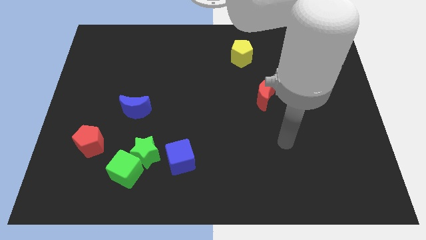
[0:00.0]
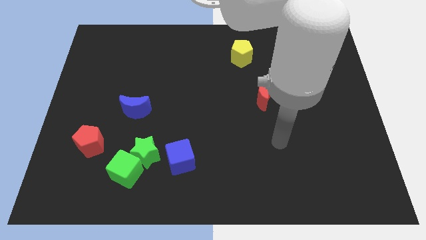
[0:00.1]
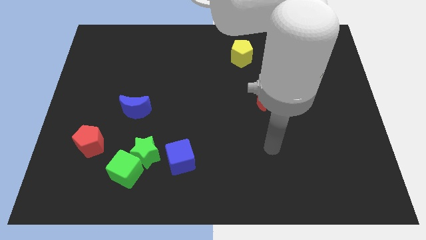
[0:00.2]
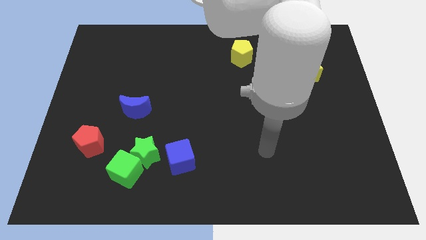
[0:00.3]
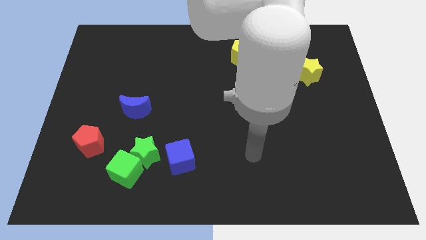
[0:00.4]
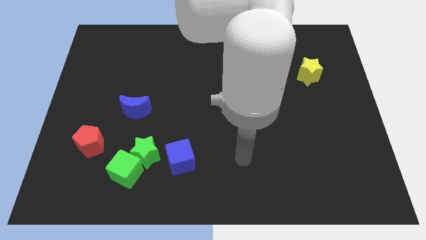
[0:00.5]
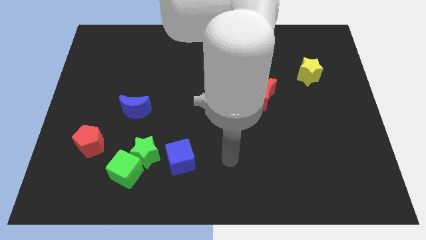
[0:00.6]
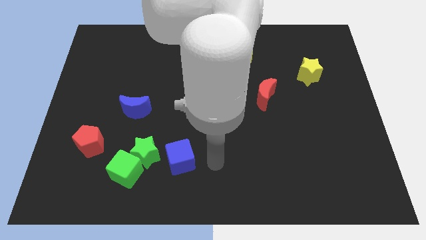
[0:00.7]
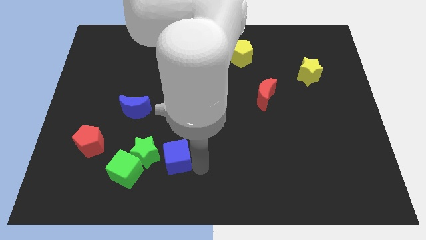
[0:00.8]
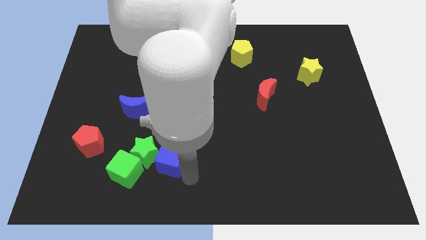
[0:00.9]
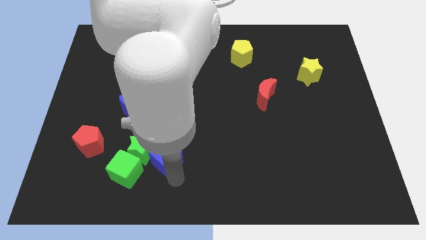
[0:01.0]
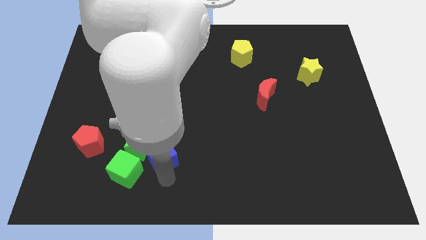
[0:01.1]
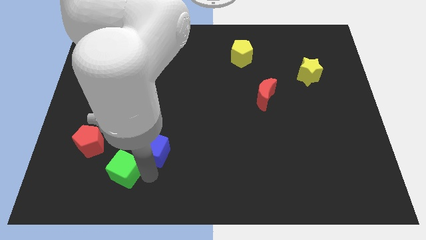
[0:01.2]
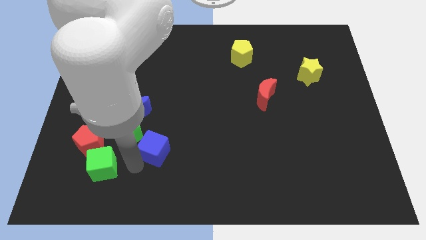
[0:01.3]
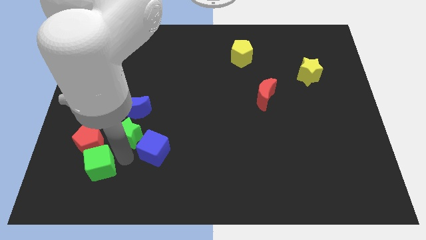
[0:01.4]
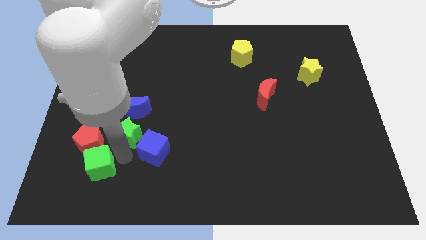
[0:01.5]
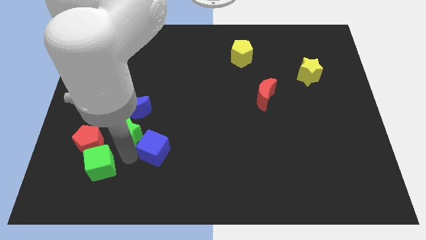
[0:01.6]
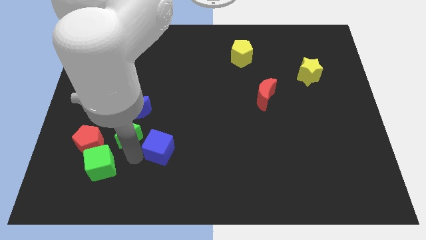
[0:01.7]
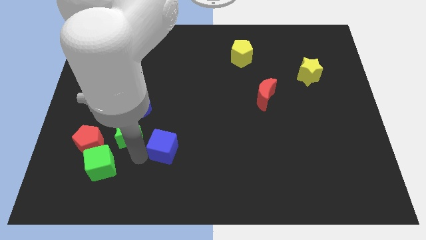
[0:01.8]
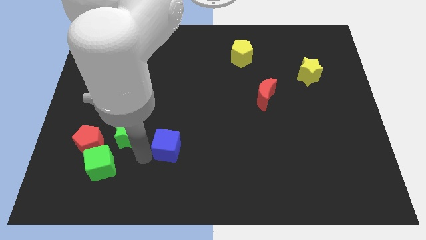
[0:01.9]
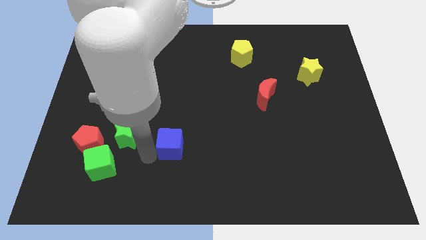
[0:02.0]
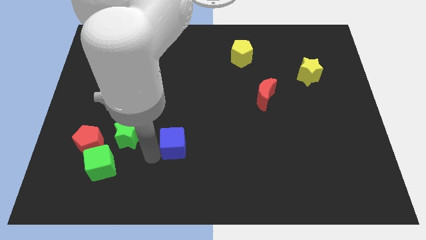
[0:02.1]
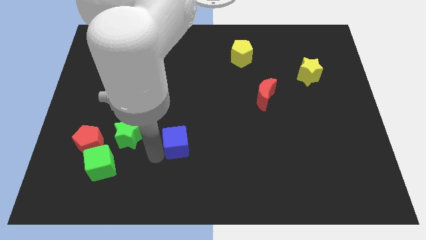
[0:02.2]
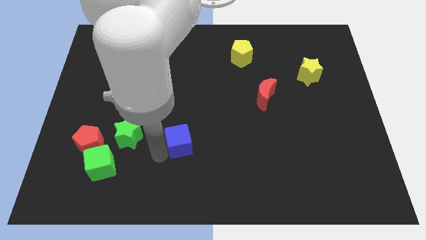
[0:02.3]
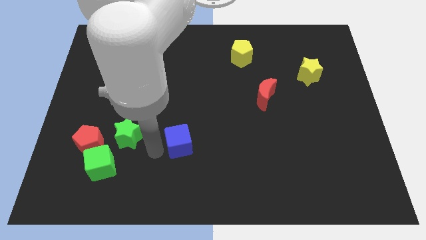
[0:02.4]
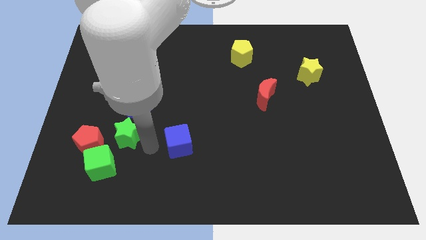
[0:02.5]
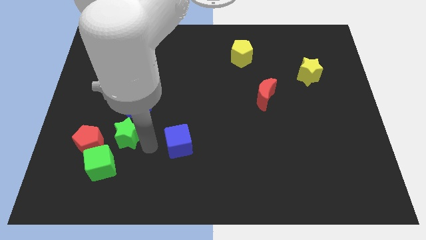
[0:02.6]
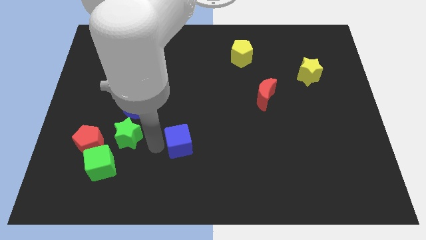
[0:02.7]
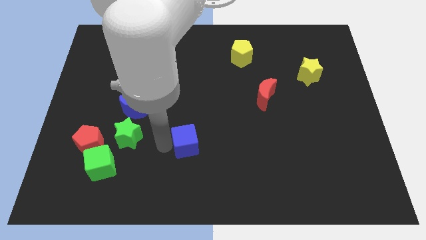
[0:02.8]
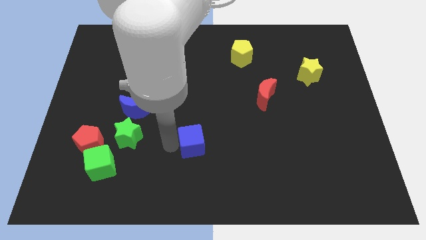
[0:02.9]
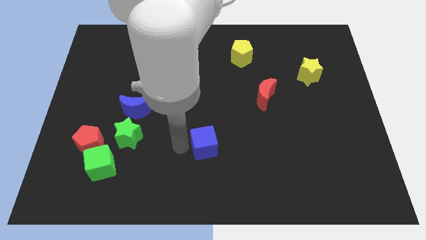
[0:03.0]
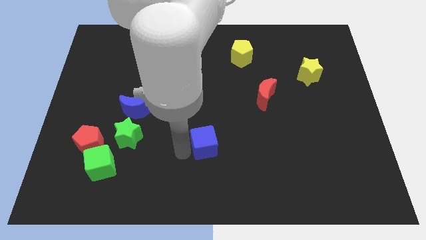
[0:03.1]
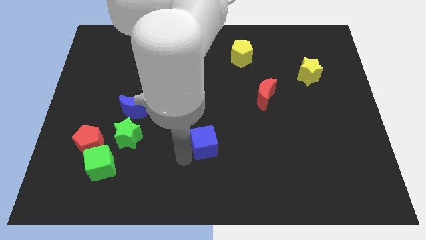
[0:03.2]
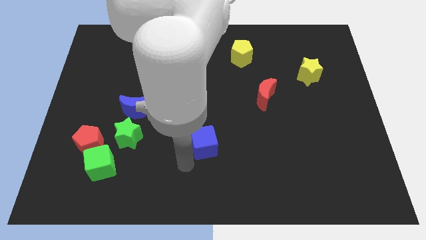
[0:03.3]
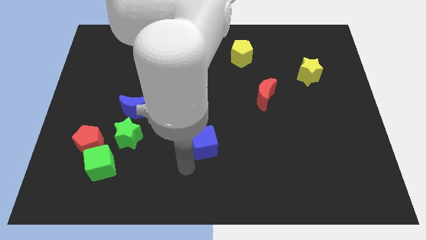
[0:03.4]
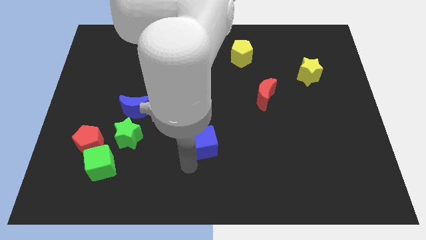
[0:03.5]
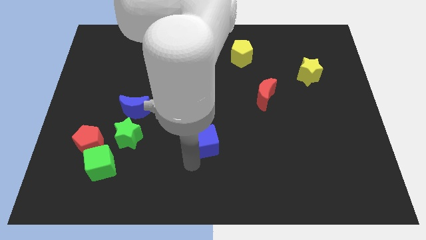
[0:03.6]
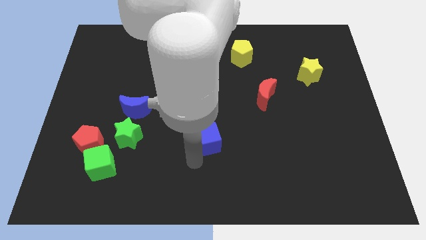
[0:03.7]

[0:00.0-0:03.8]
slide the blue cube upwards and to the right somewhat

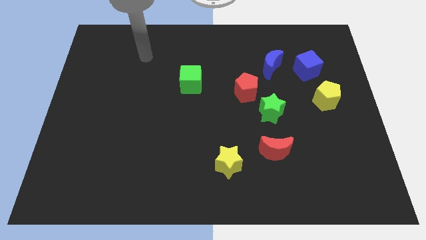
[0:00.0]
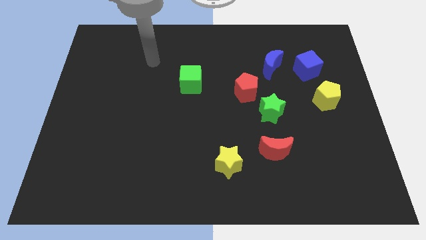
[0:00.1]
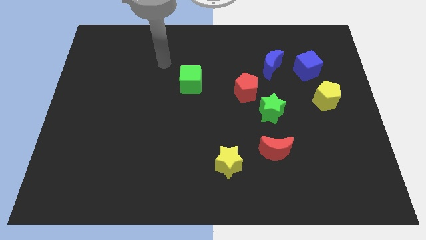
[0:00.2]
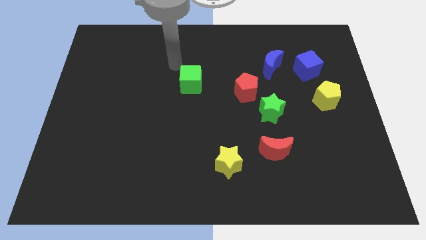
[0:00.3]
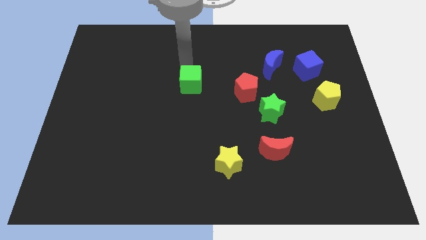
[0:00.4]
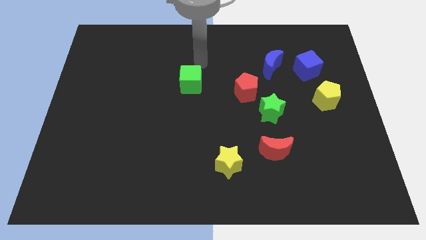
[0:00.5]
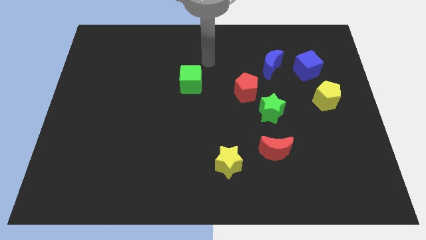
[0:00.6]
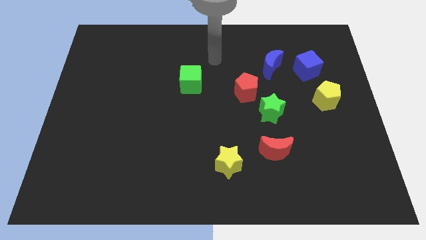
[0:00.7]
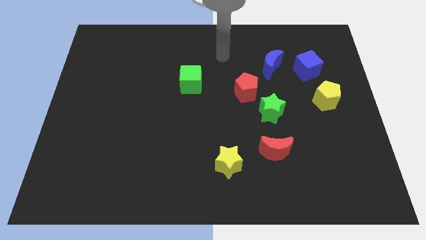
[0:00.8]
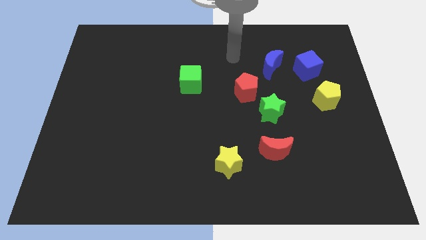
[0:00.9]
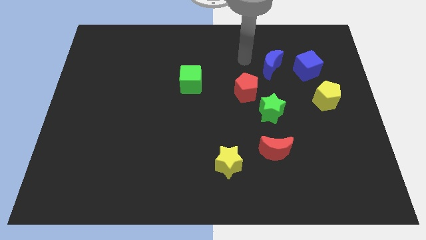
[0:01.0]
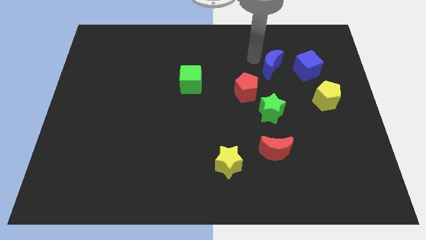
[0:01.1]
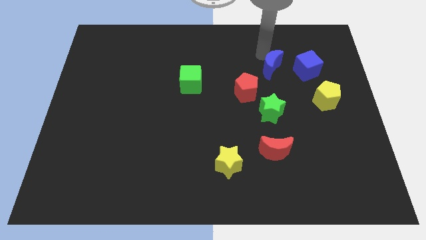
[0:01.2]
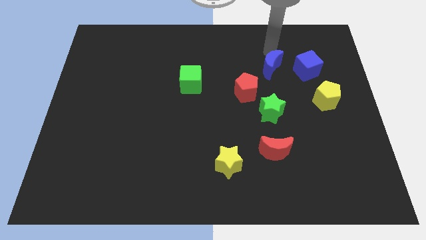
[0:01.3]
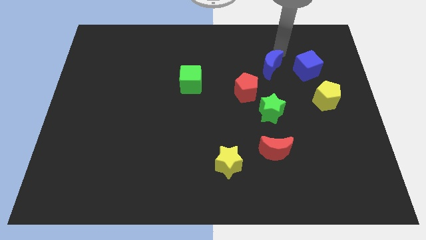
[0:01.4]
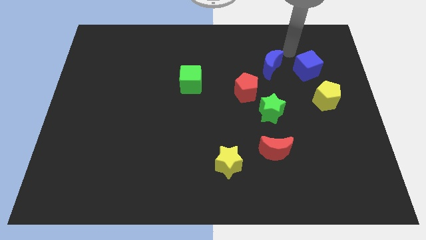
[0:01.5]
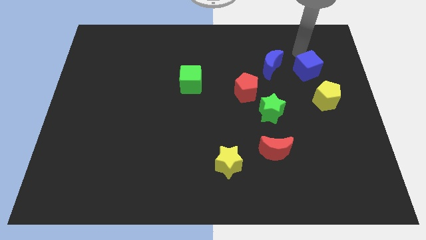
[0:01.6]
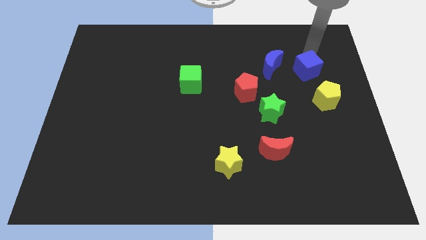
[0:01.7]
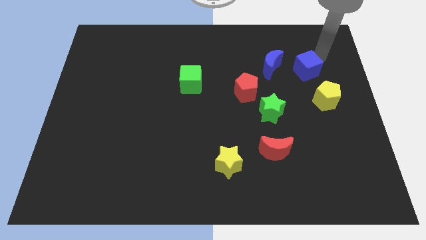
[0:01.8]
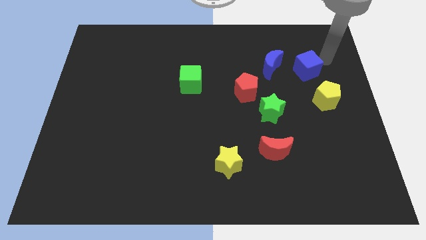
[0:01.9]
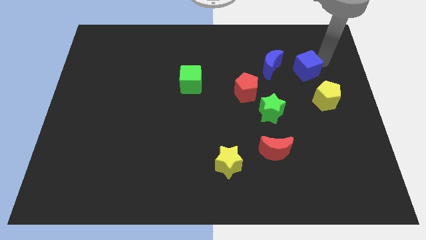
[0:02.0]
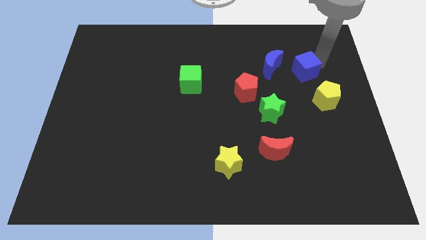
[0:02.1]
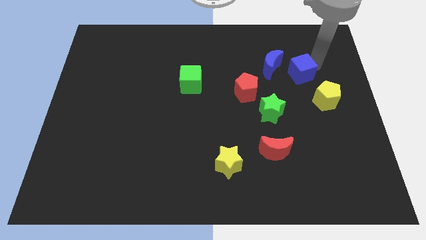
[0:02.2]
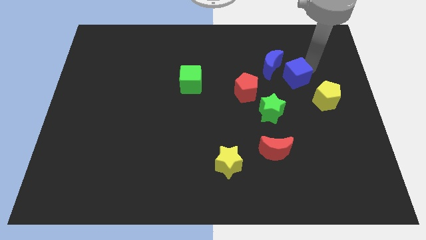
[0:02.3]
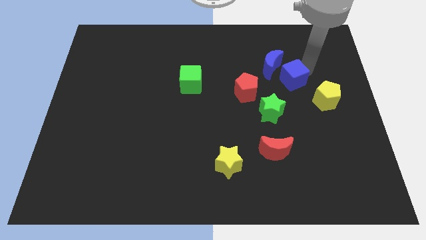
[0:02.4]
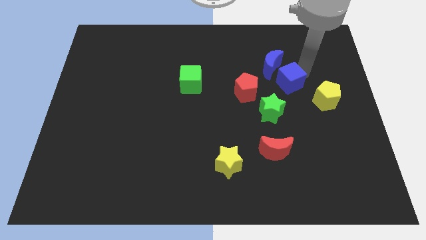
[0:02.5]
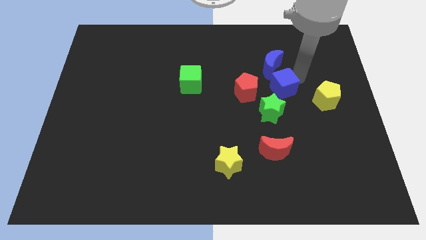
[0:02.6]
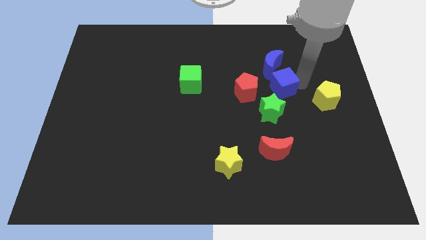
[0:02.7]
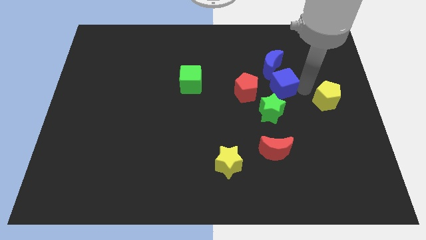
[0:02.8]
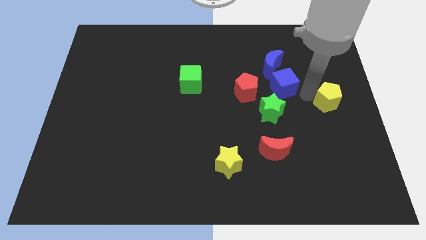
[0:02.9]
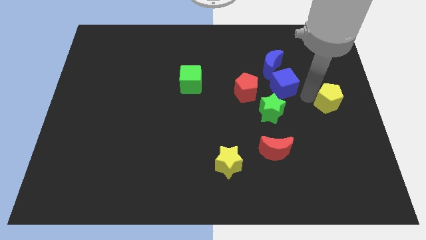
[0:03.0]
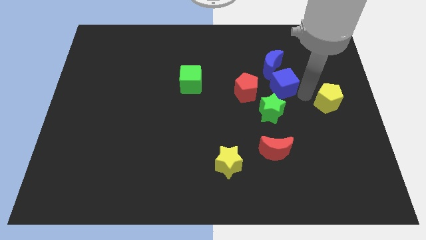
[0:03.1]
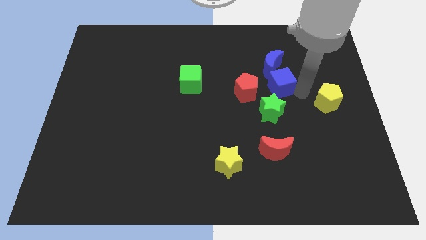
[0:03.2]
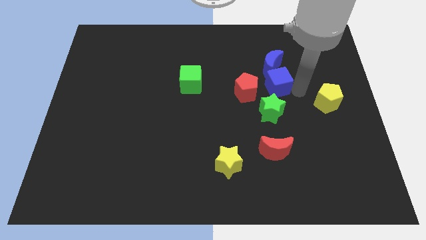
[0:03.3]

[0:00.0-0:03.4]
slightly move the blue cube to the left

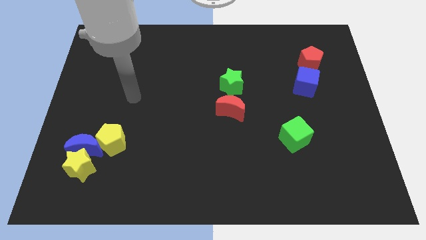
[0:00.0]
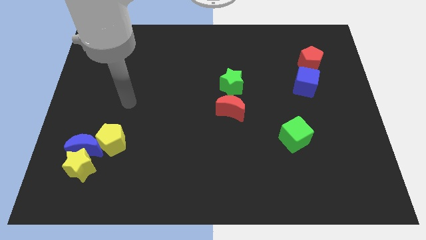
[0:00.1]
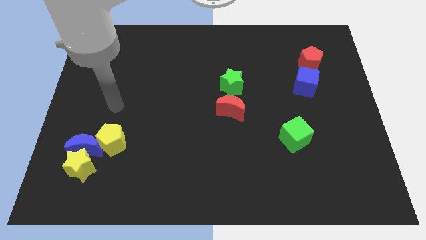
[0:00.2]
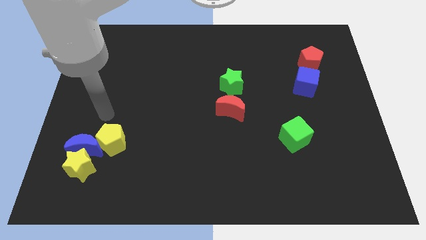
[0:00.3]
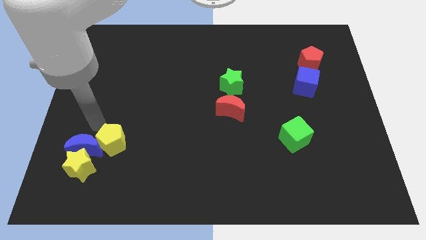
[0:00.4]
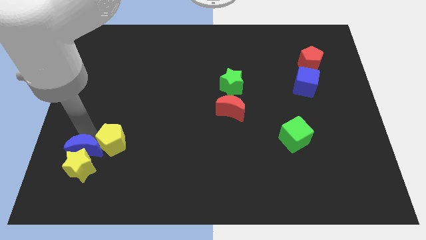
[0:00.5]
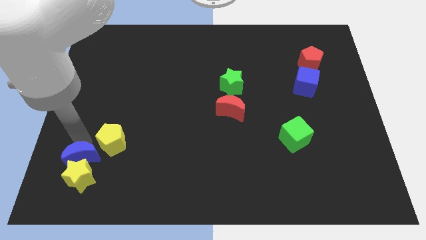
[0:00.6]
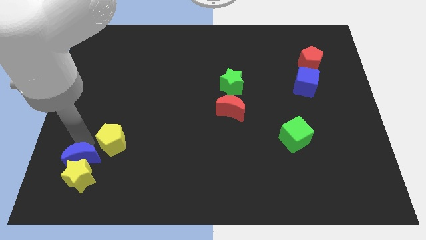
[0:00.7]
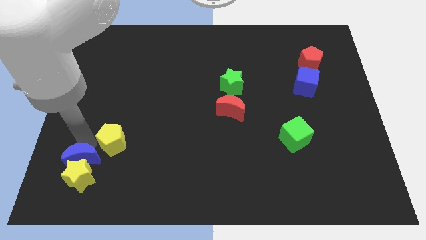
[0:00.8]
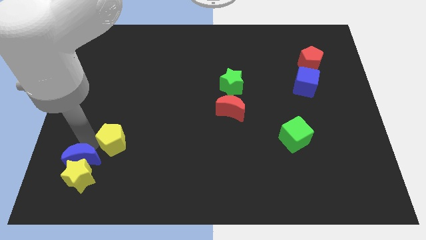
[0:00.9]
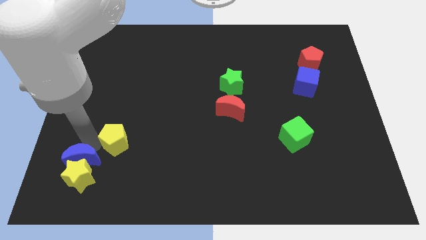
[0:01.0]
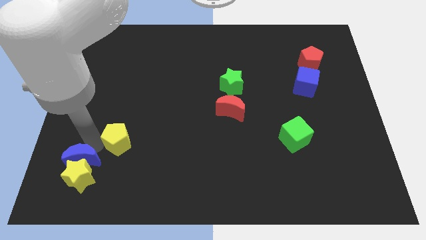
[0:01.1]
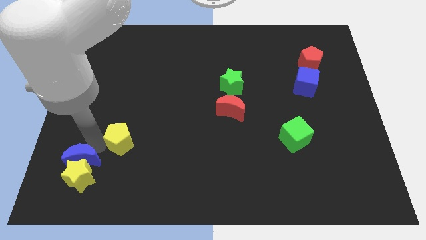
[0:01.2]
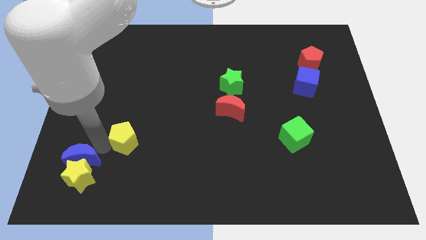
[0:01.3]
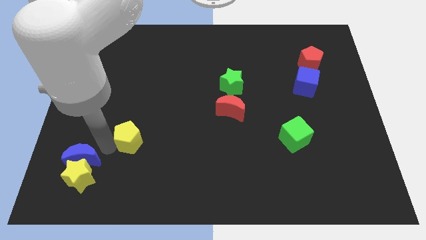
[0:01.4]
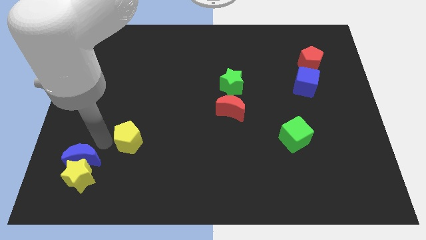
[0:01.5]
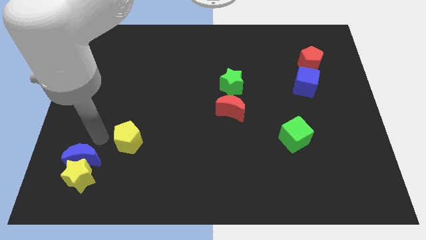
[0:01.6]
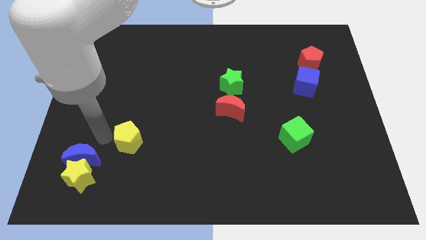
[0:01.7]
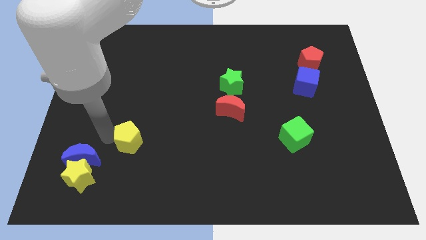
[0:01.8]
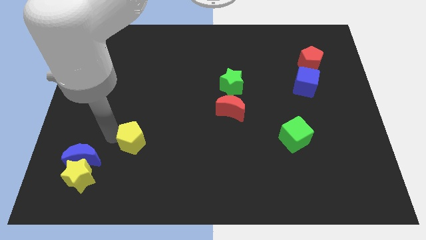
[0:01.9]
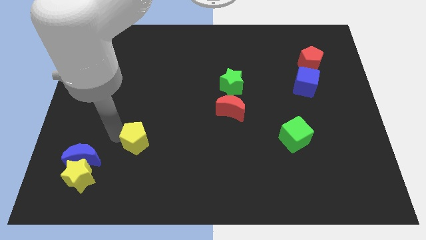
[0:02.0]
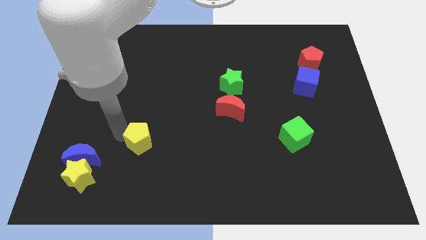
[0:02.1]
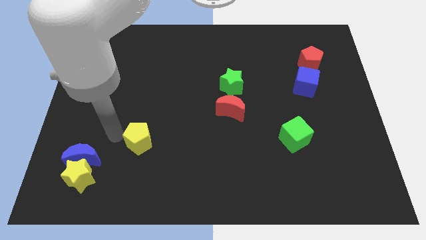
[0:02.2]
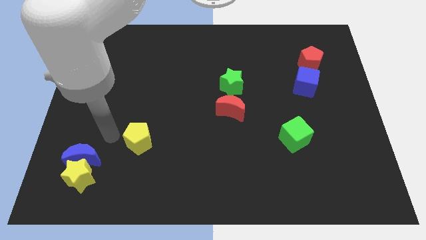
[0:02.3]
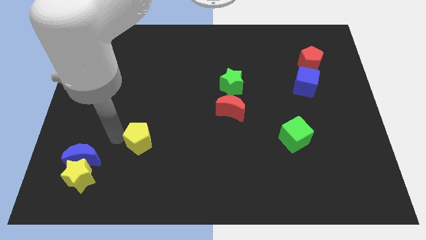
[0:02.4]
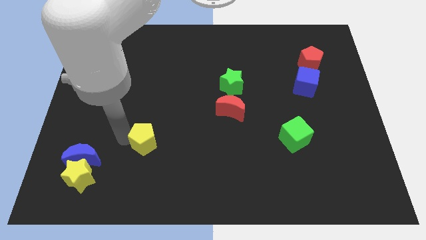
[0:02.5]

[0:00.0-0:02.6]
push the yellow pentagon somewhat to the right
